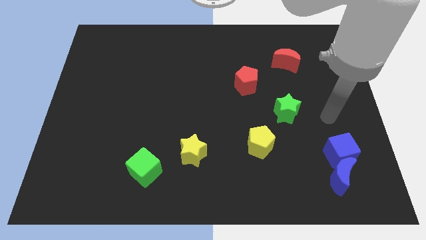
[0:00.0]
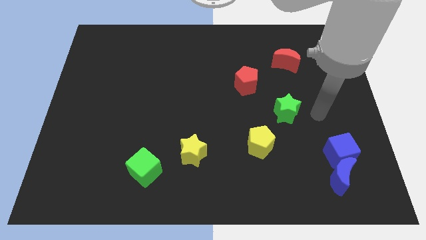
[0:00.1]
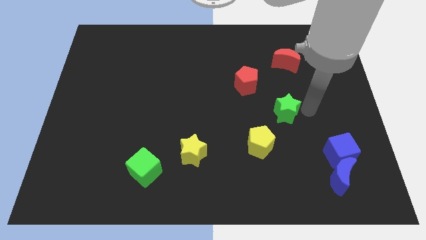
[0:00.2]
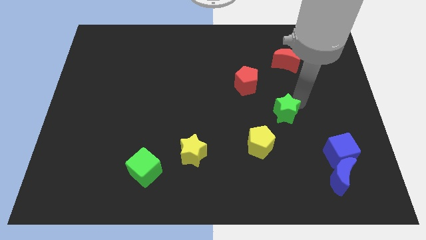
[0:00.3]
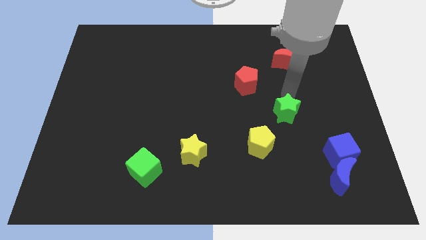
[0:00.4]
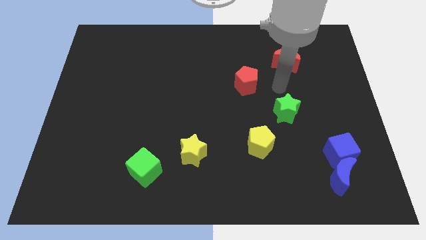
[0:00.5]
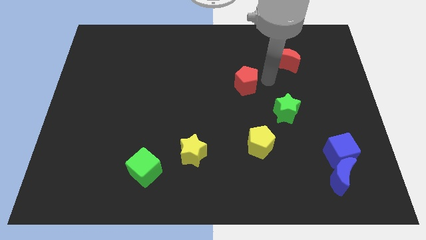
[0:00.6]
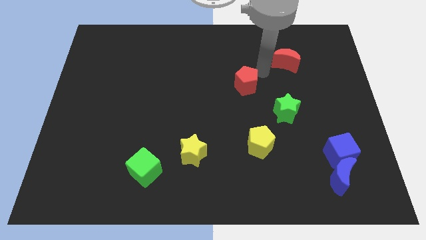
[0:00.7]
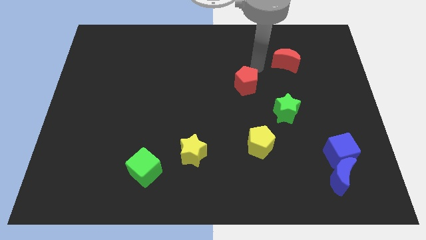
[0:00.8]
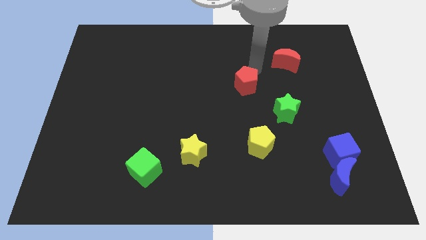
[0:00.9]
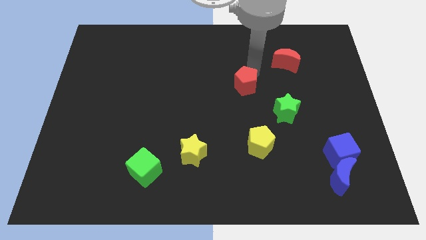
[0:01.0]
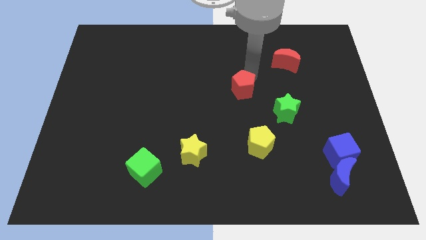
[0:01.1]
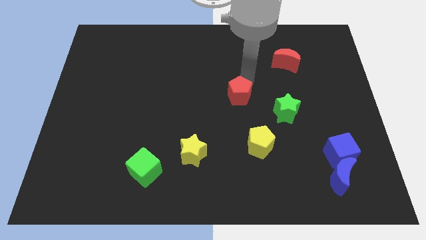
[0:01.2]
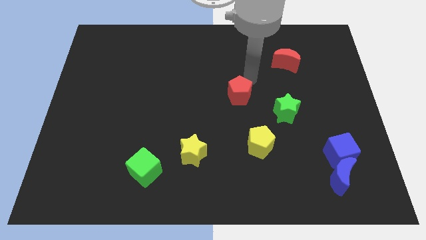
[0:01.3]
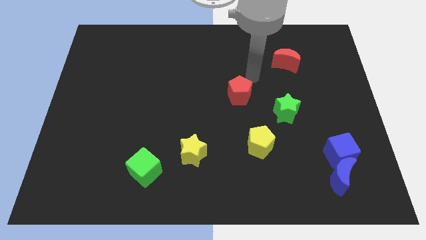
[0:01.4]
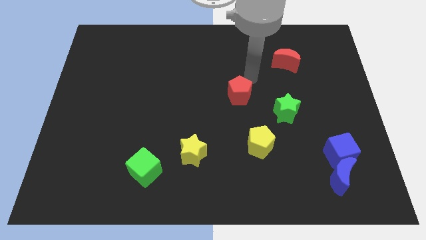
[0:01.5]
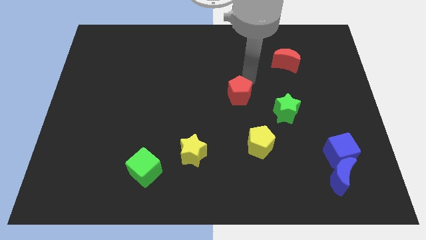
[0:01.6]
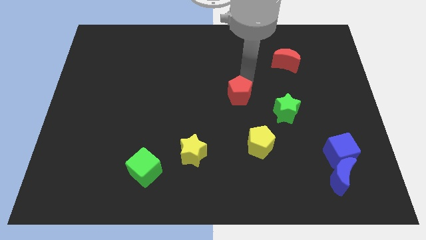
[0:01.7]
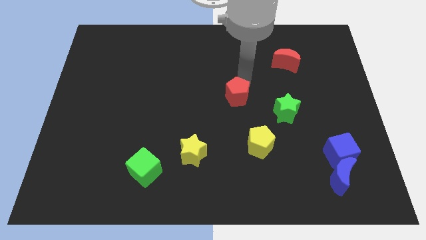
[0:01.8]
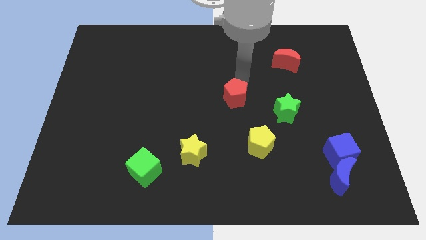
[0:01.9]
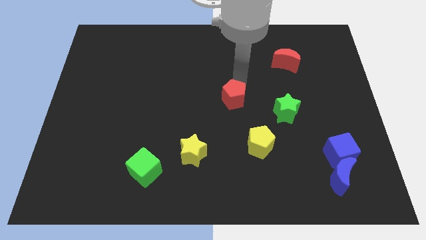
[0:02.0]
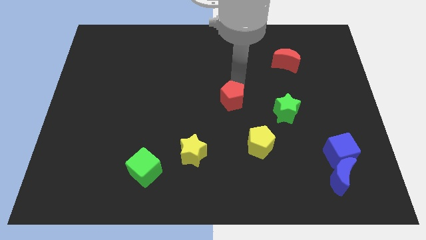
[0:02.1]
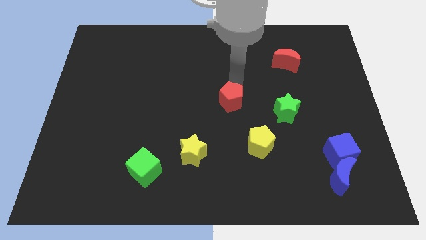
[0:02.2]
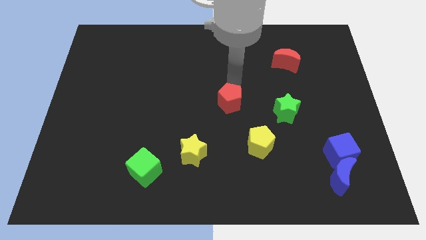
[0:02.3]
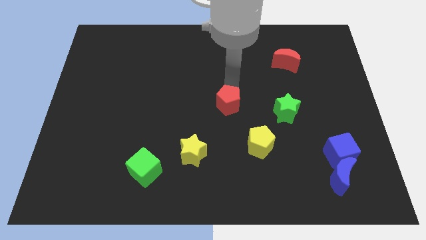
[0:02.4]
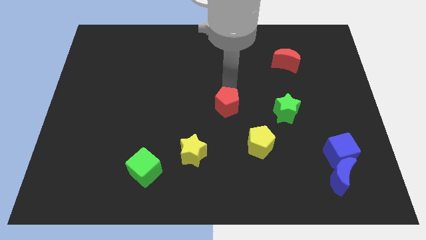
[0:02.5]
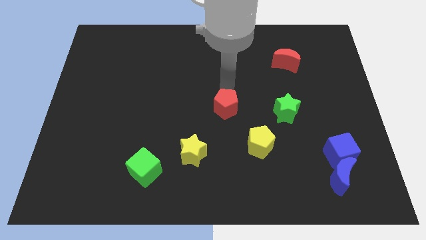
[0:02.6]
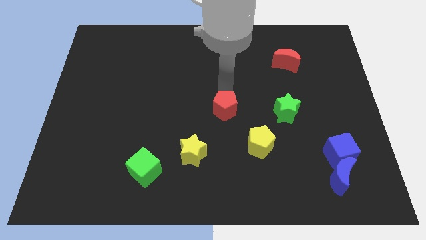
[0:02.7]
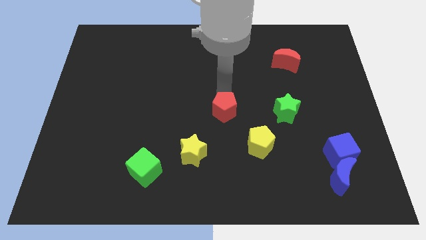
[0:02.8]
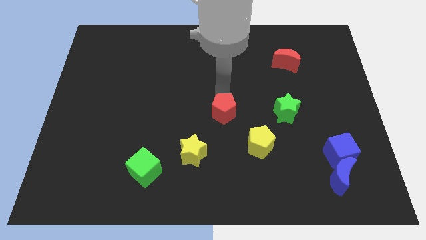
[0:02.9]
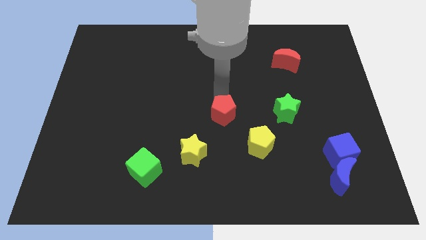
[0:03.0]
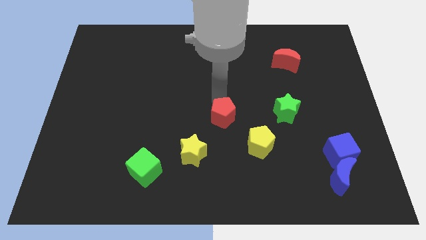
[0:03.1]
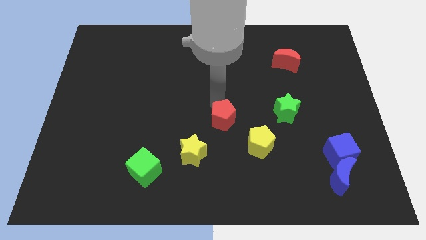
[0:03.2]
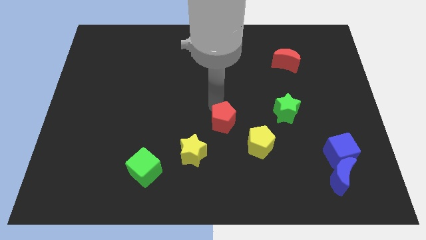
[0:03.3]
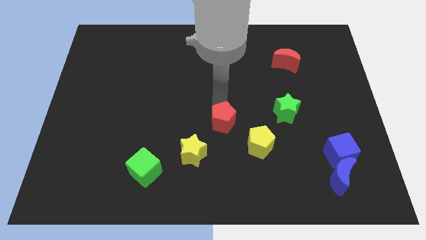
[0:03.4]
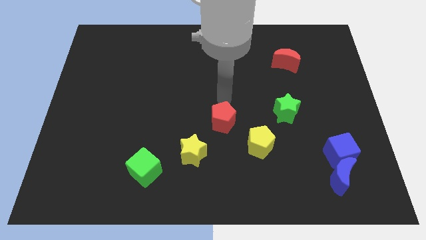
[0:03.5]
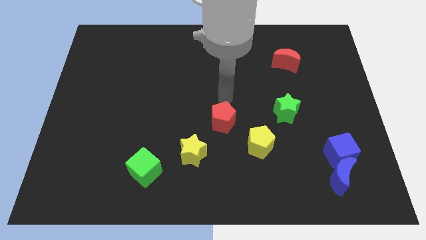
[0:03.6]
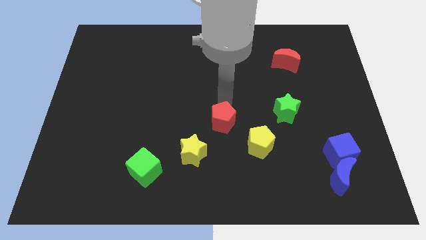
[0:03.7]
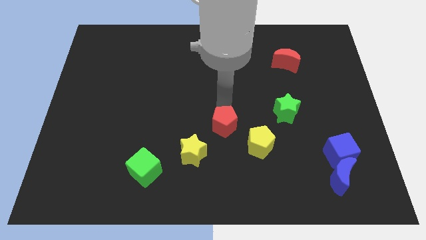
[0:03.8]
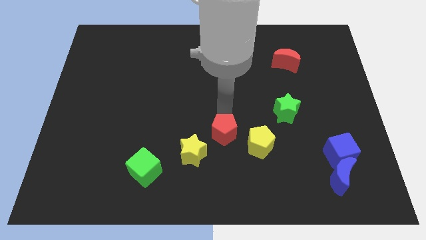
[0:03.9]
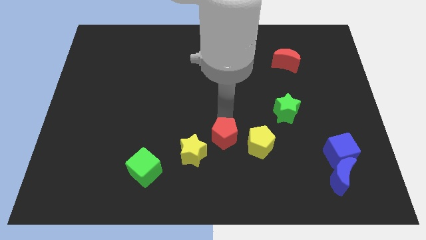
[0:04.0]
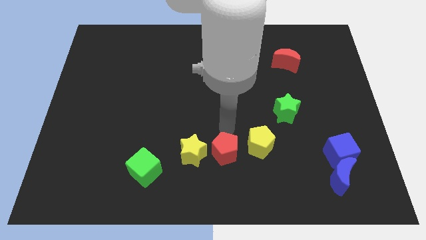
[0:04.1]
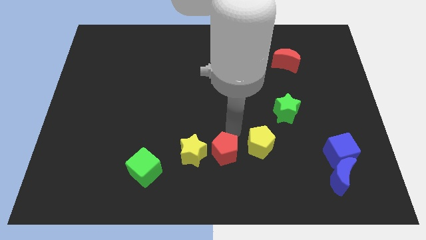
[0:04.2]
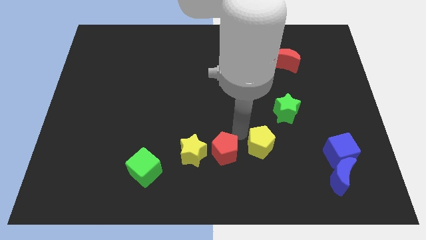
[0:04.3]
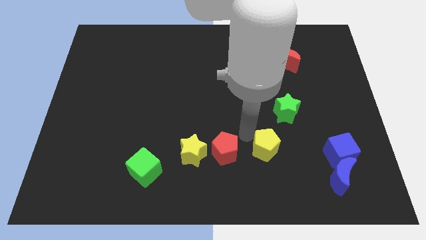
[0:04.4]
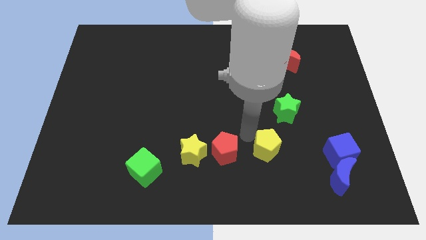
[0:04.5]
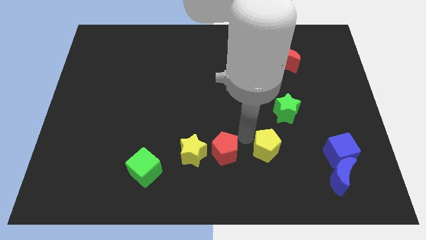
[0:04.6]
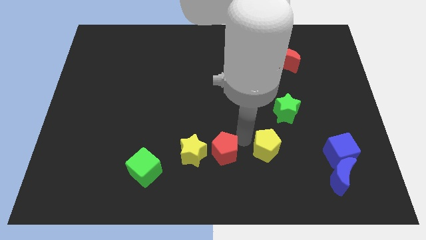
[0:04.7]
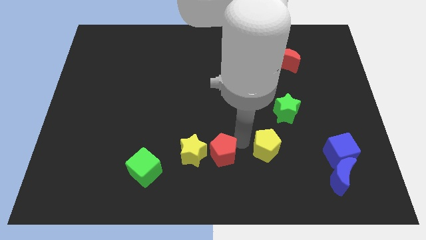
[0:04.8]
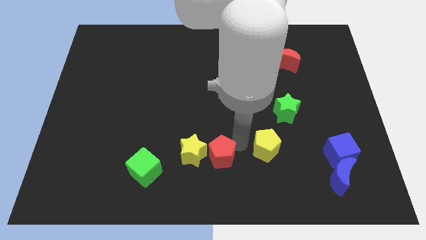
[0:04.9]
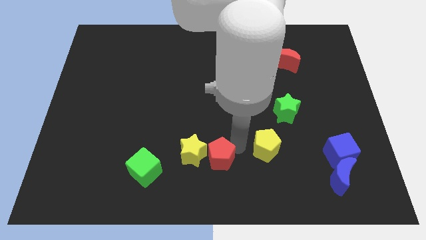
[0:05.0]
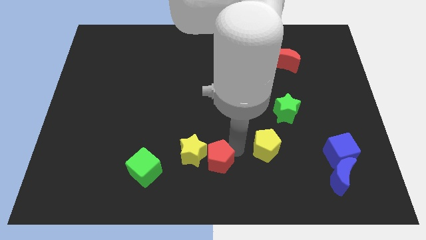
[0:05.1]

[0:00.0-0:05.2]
slide the red pentagon right of the green cube

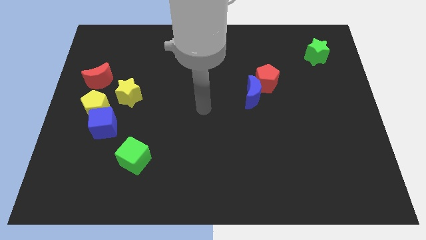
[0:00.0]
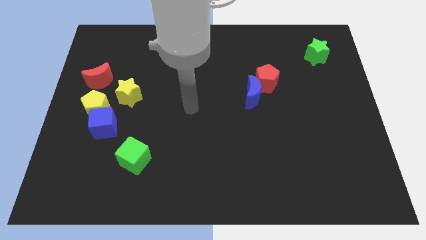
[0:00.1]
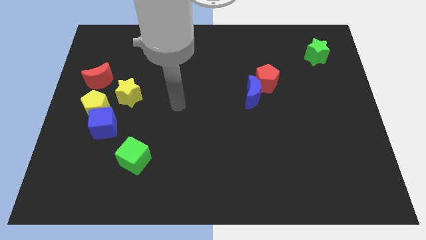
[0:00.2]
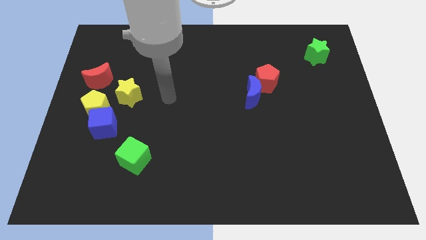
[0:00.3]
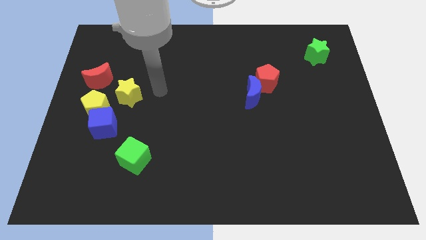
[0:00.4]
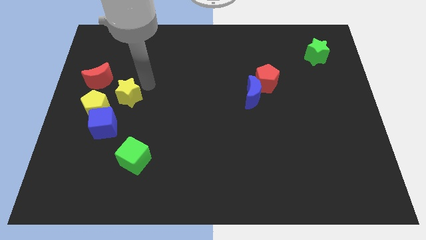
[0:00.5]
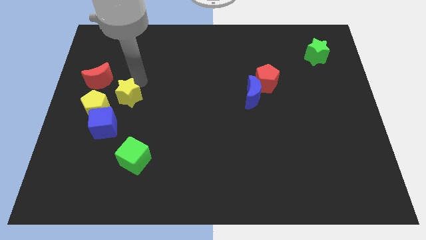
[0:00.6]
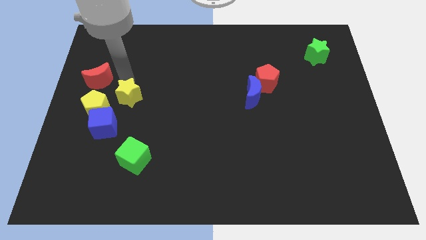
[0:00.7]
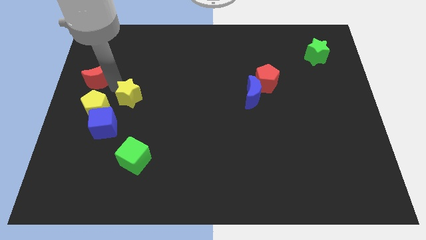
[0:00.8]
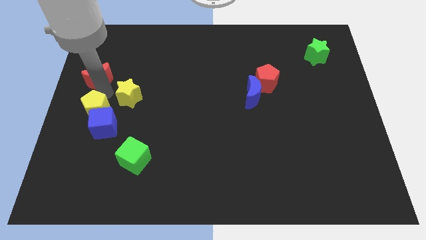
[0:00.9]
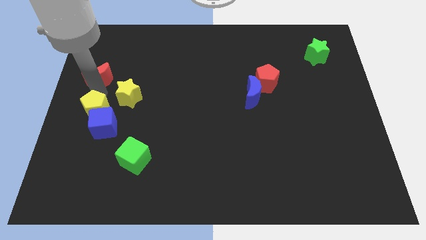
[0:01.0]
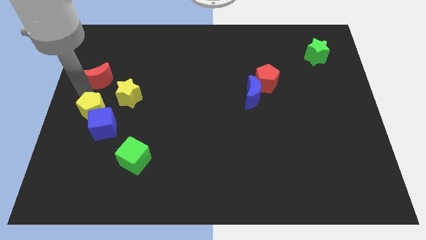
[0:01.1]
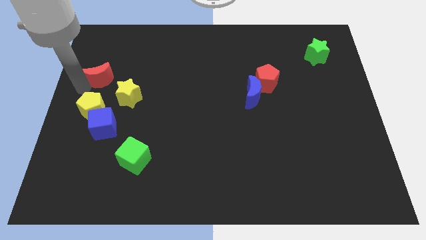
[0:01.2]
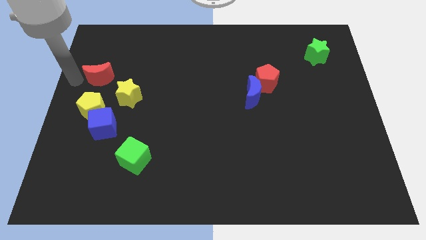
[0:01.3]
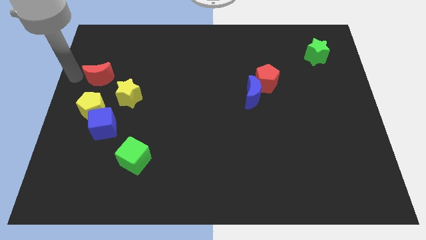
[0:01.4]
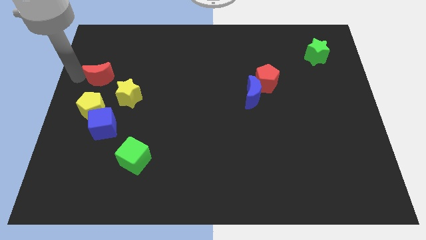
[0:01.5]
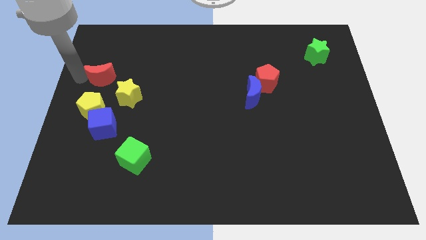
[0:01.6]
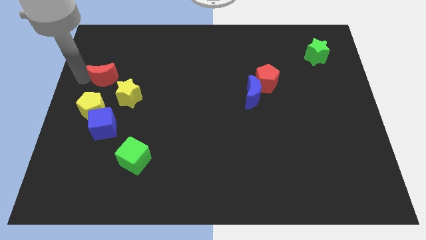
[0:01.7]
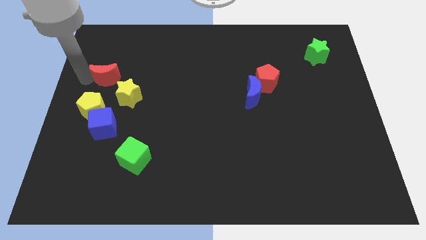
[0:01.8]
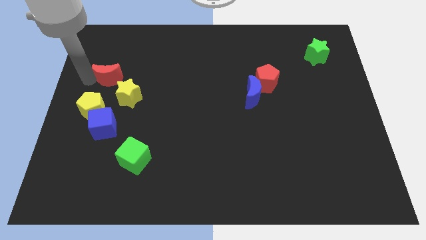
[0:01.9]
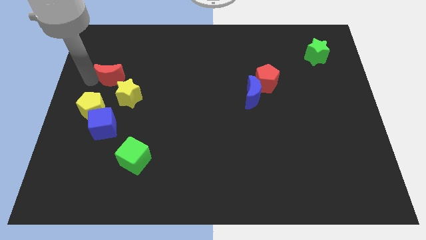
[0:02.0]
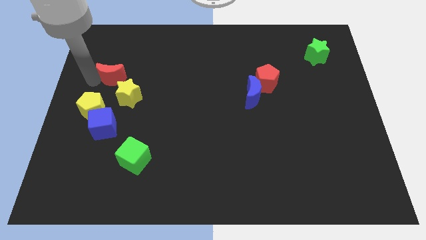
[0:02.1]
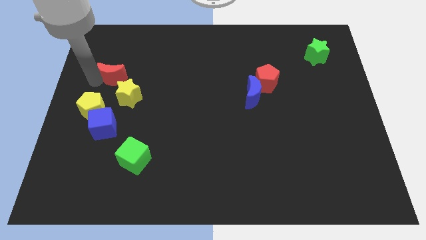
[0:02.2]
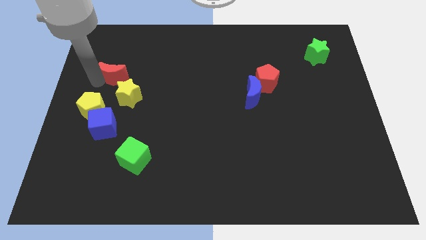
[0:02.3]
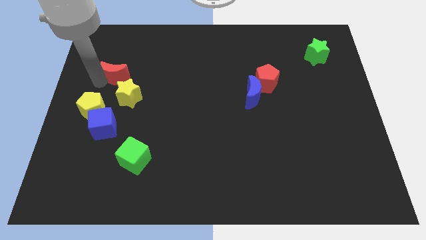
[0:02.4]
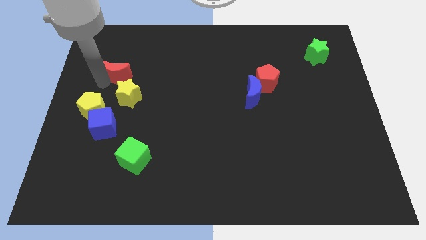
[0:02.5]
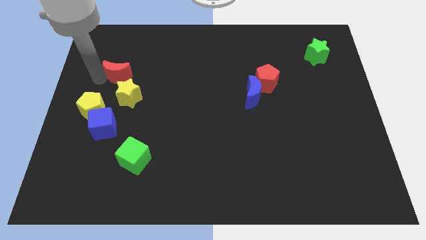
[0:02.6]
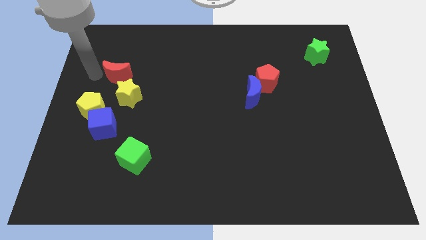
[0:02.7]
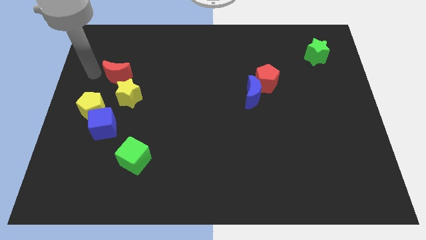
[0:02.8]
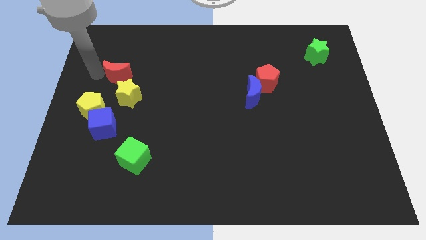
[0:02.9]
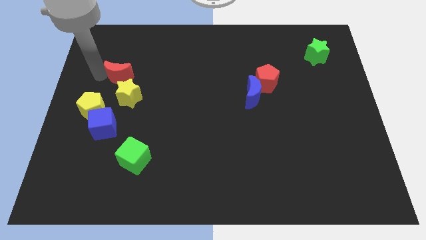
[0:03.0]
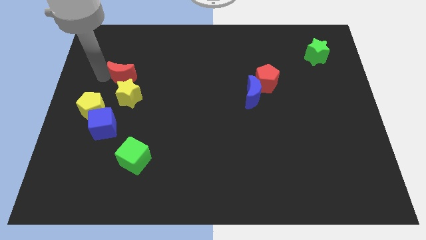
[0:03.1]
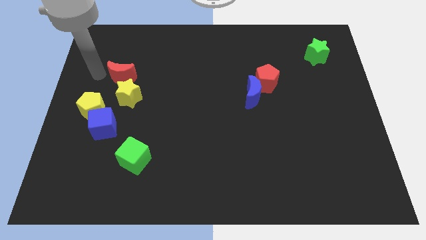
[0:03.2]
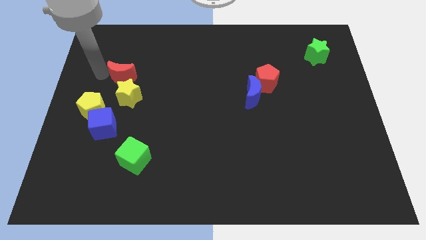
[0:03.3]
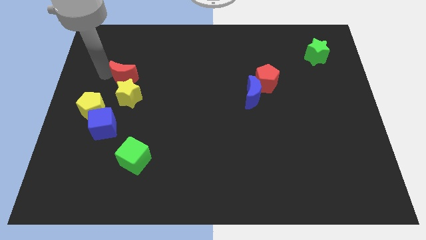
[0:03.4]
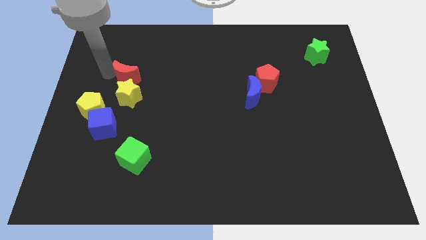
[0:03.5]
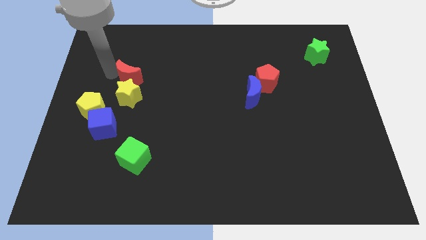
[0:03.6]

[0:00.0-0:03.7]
move the red moon to the top right of the yellow star
